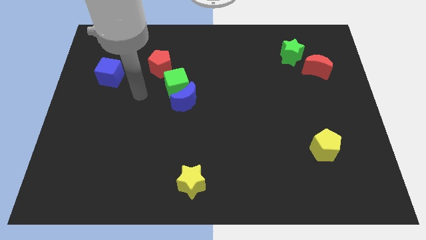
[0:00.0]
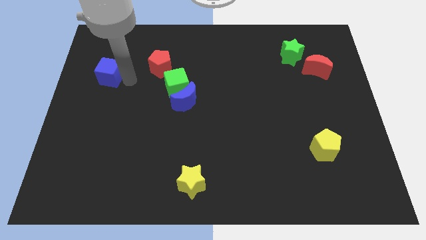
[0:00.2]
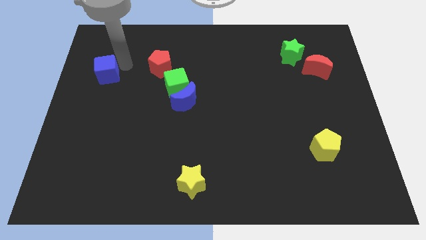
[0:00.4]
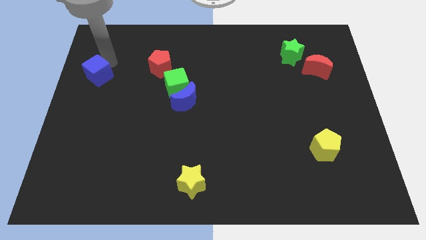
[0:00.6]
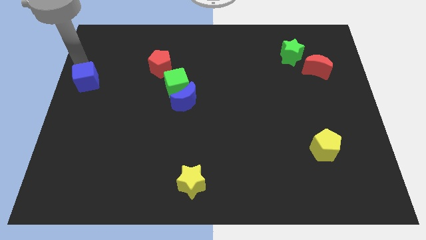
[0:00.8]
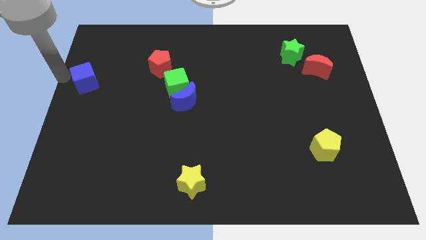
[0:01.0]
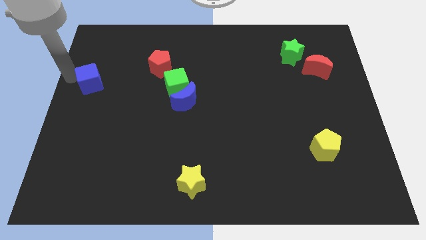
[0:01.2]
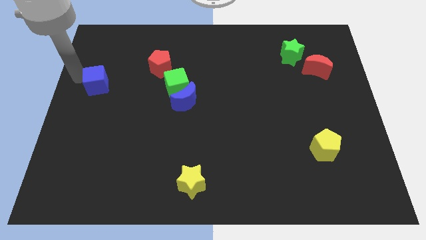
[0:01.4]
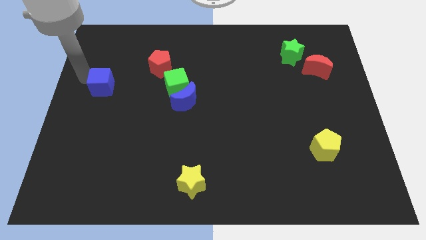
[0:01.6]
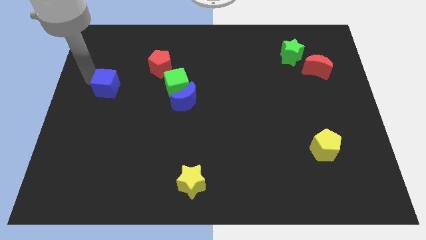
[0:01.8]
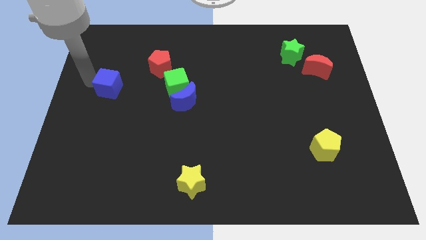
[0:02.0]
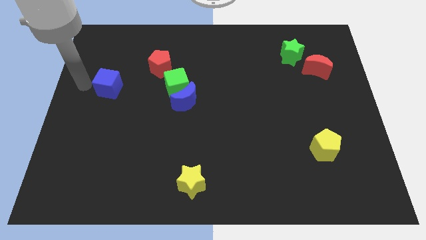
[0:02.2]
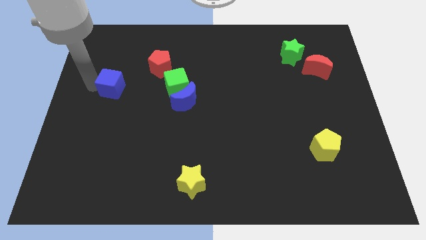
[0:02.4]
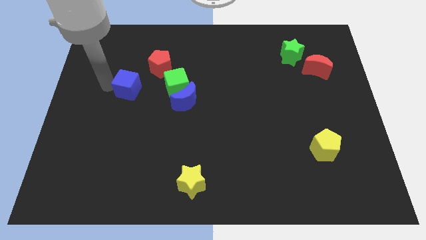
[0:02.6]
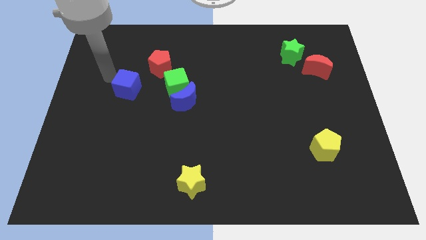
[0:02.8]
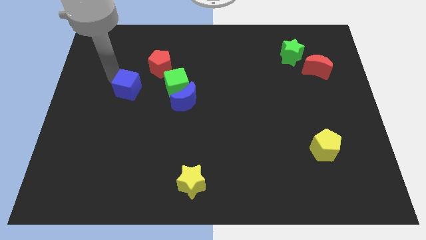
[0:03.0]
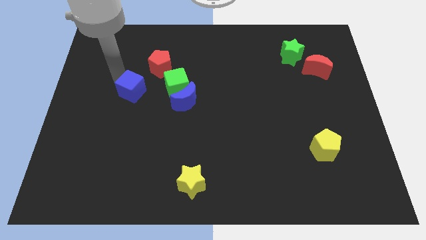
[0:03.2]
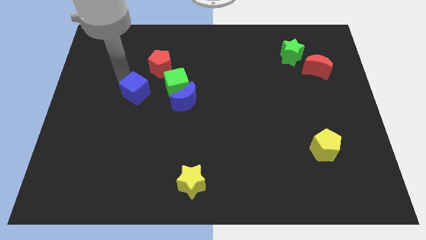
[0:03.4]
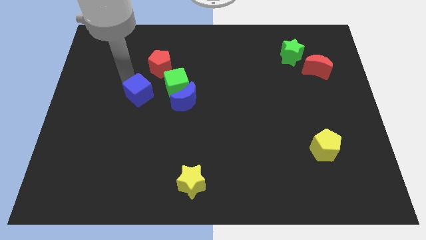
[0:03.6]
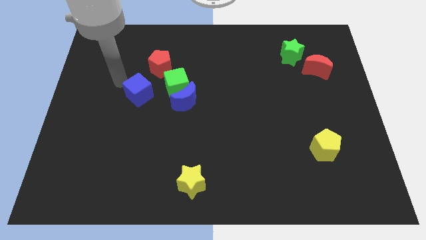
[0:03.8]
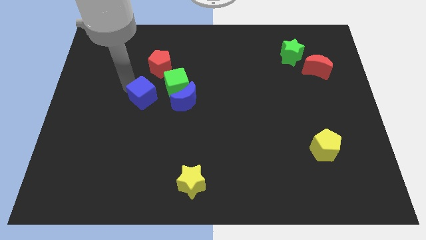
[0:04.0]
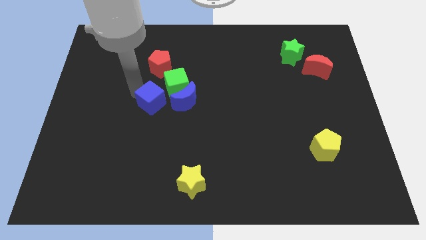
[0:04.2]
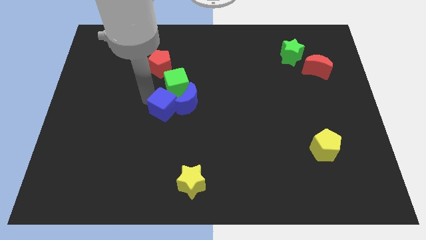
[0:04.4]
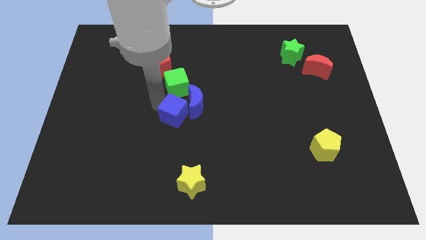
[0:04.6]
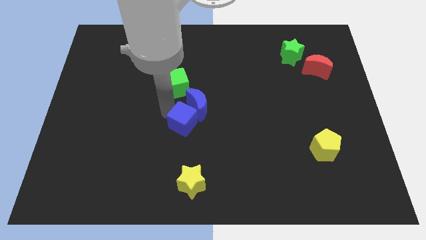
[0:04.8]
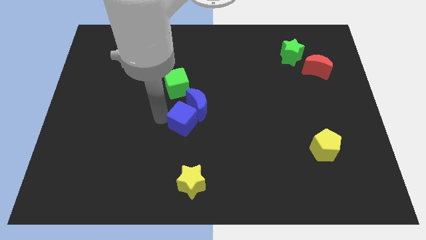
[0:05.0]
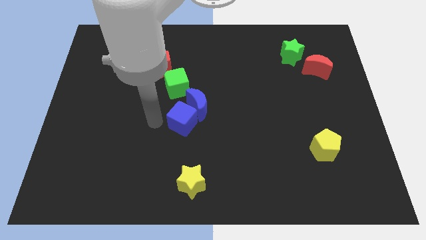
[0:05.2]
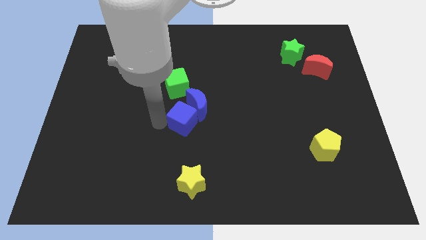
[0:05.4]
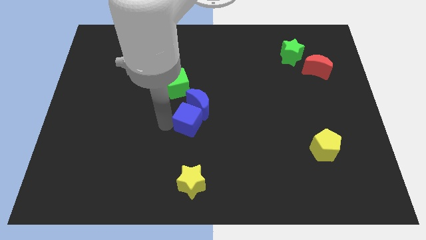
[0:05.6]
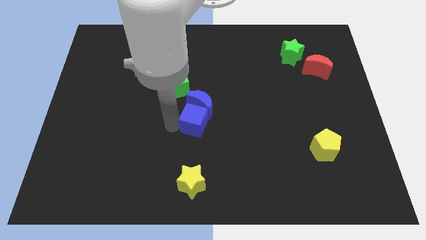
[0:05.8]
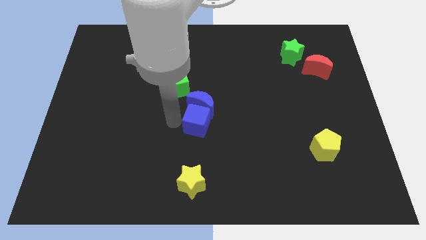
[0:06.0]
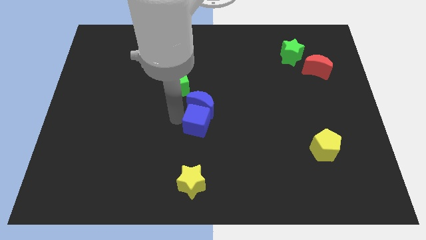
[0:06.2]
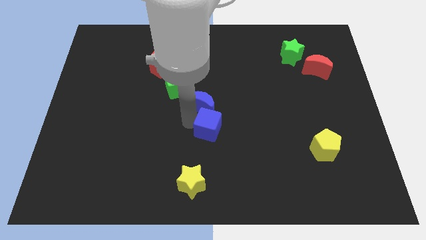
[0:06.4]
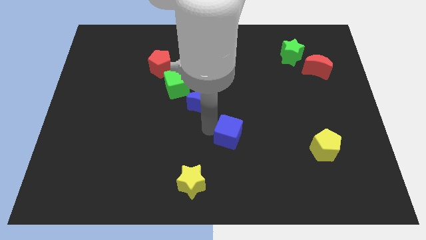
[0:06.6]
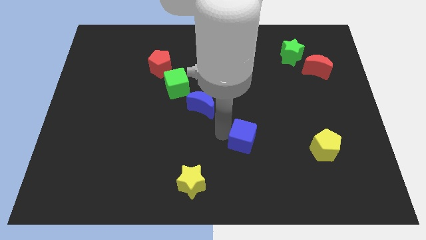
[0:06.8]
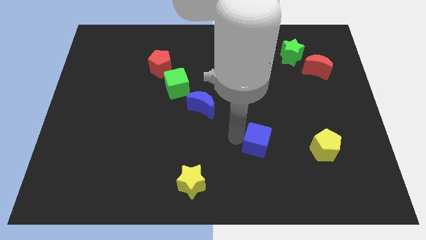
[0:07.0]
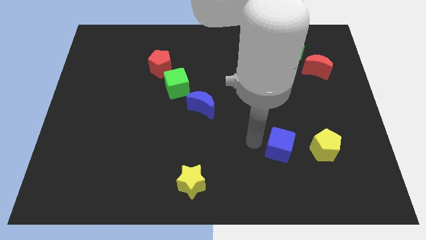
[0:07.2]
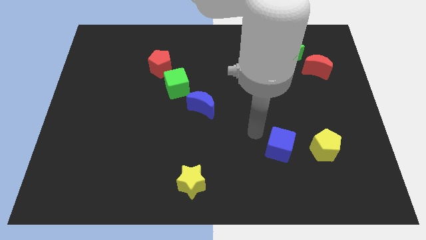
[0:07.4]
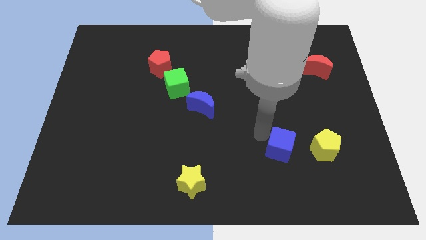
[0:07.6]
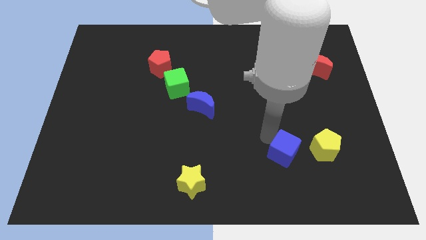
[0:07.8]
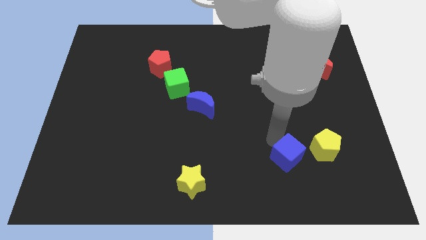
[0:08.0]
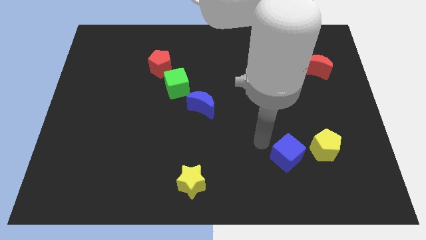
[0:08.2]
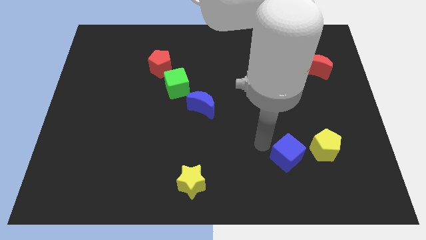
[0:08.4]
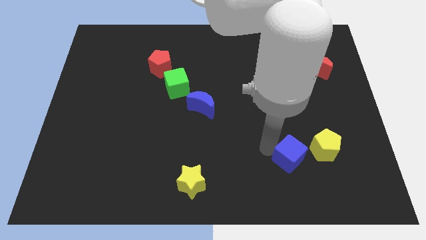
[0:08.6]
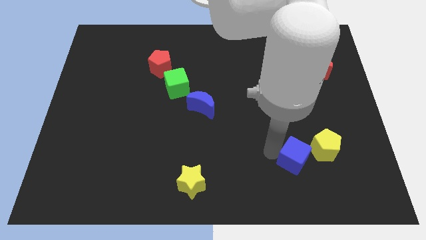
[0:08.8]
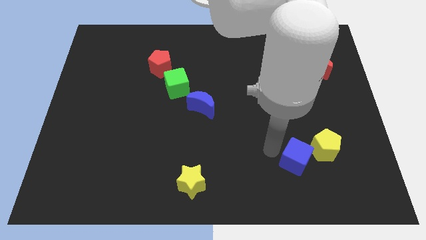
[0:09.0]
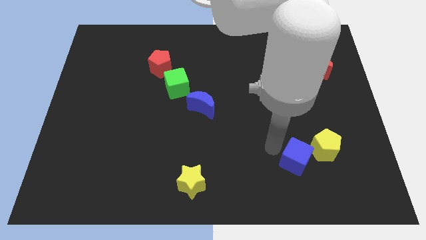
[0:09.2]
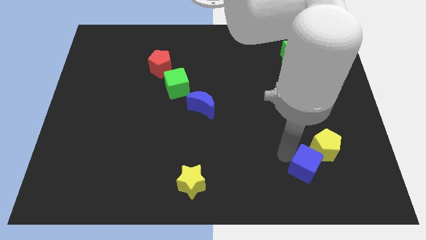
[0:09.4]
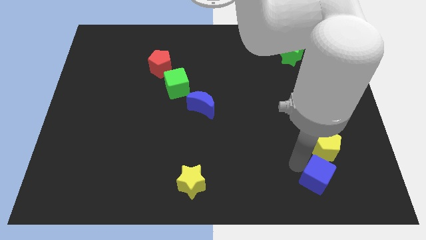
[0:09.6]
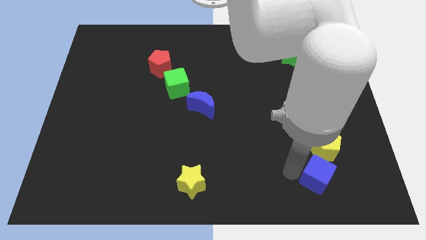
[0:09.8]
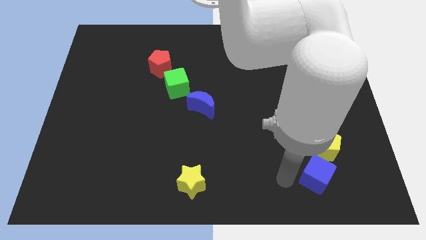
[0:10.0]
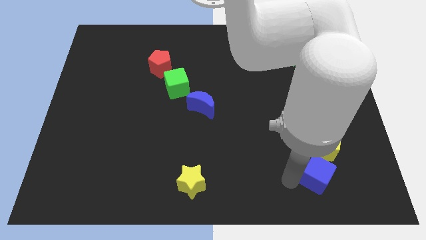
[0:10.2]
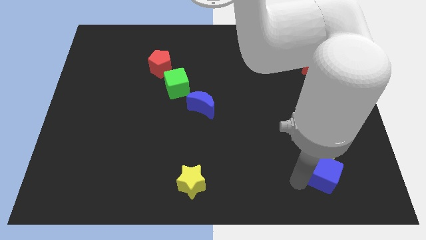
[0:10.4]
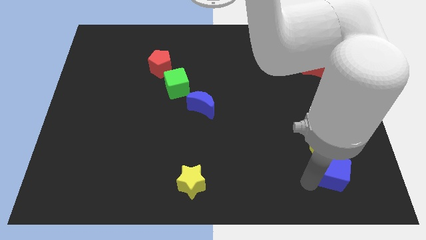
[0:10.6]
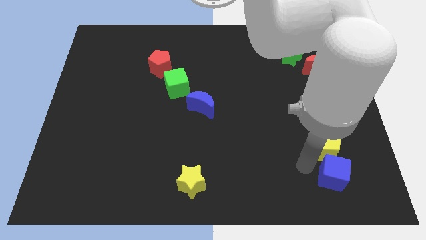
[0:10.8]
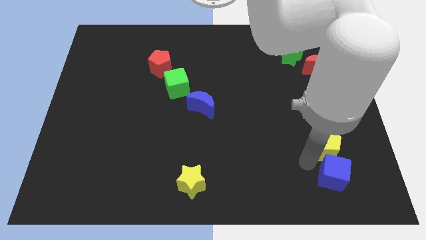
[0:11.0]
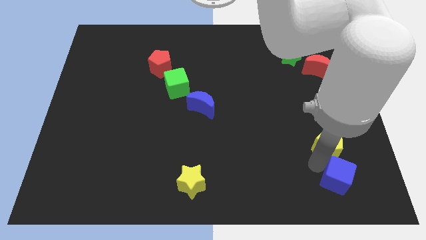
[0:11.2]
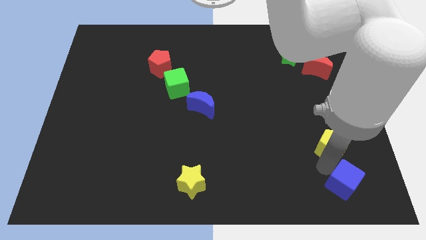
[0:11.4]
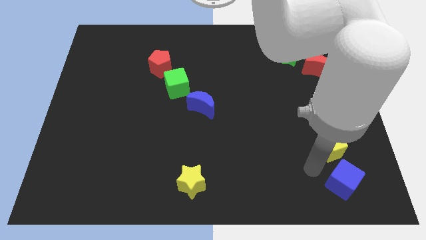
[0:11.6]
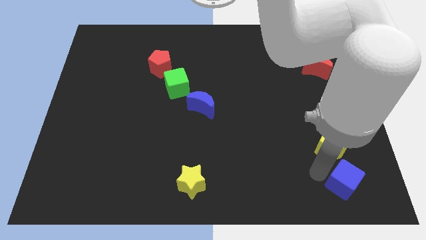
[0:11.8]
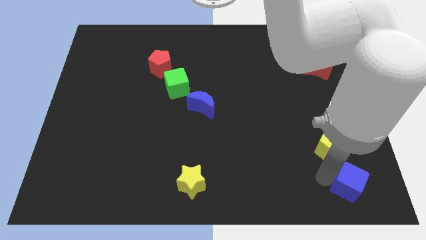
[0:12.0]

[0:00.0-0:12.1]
push the blue cube to the bottom right of the board
